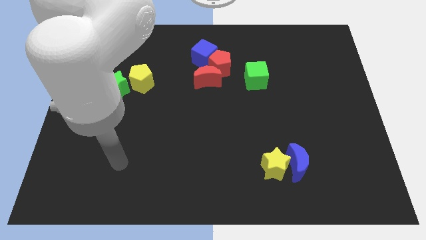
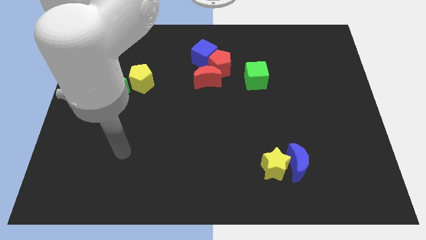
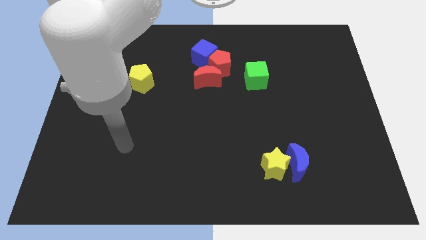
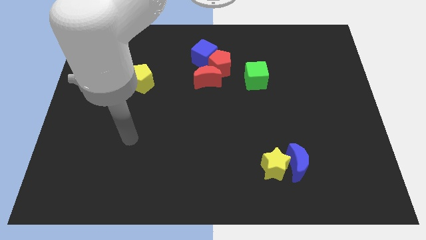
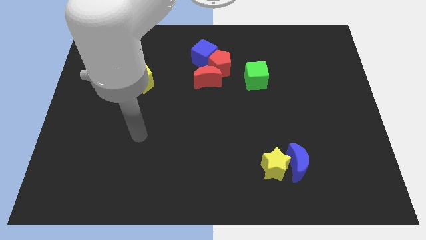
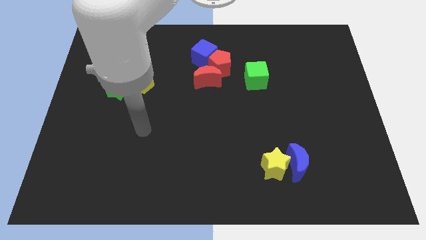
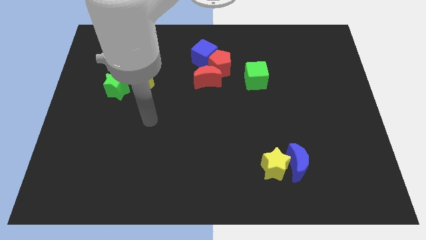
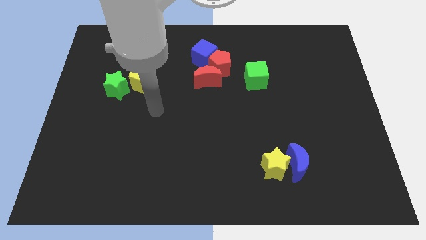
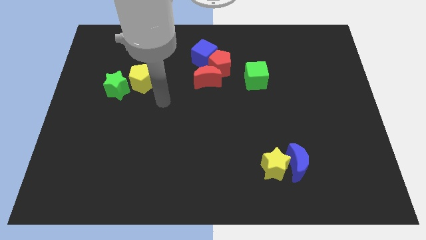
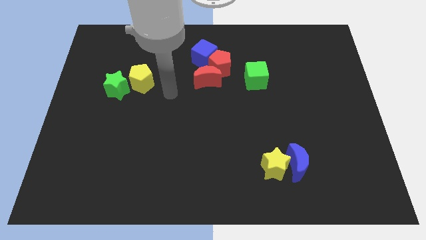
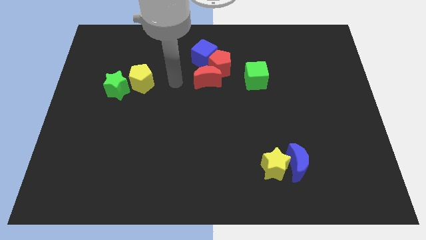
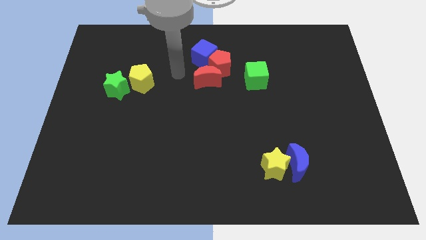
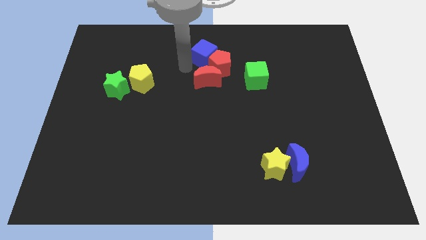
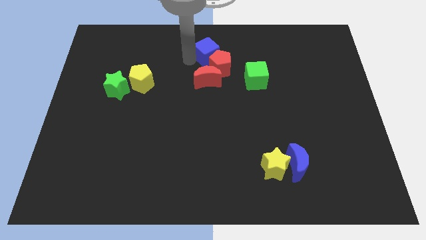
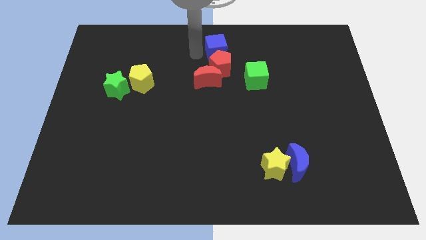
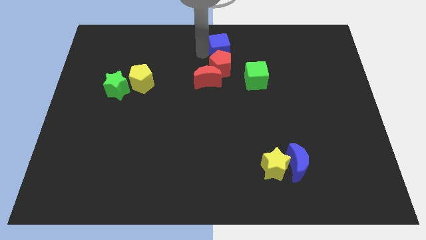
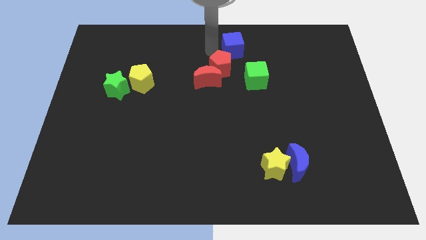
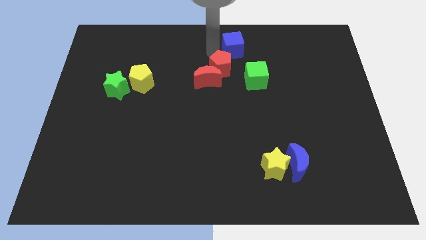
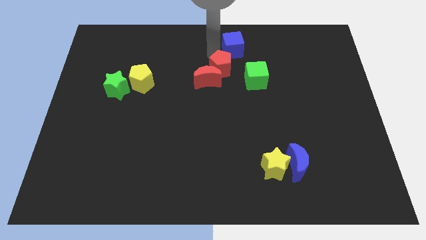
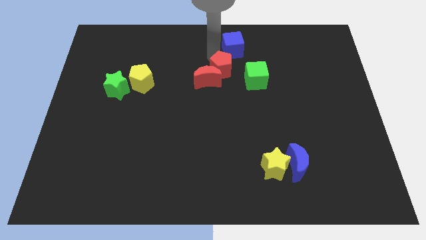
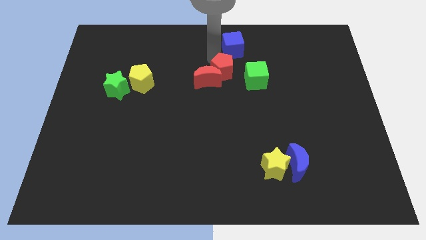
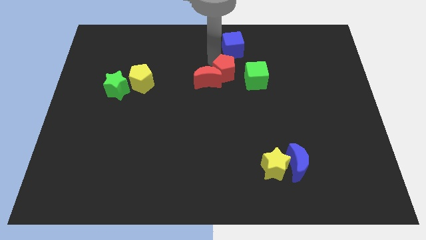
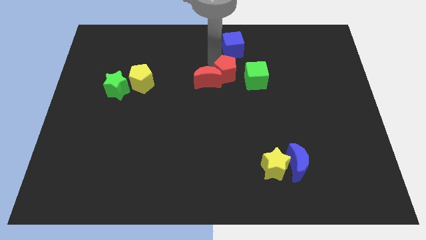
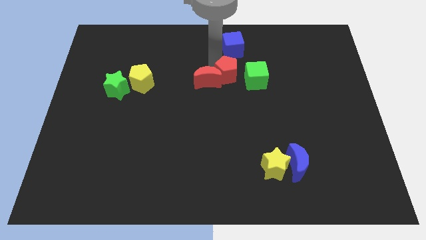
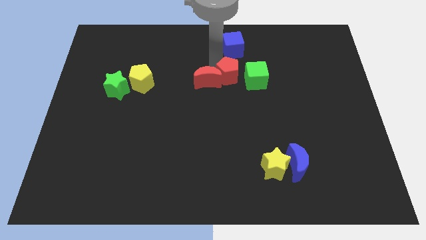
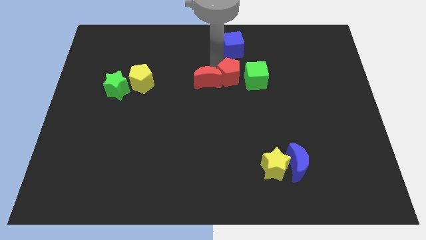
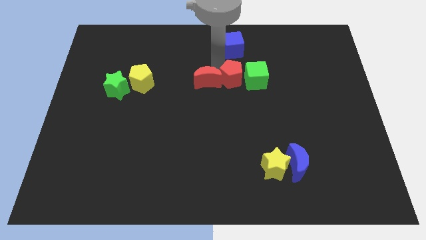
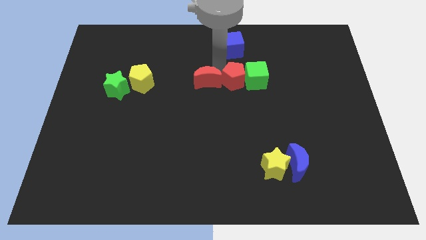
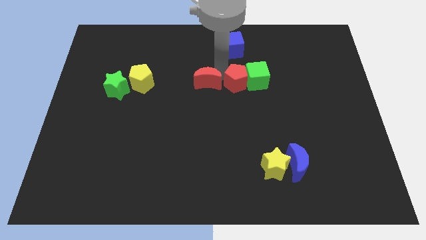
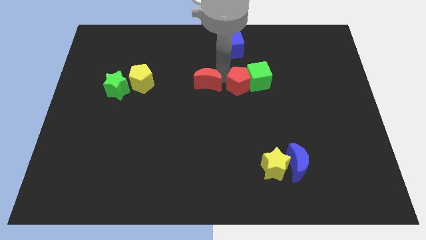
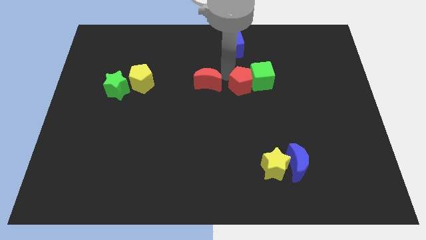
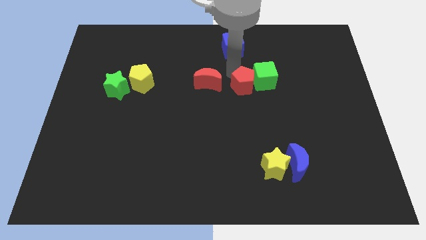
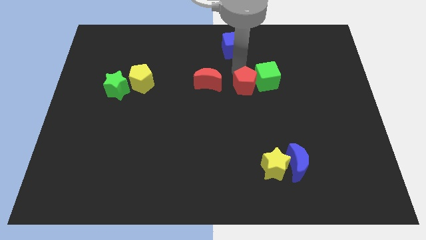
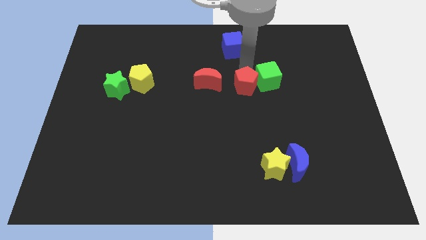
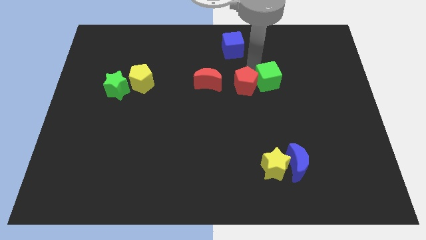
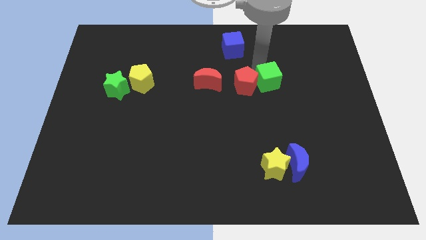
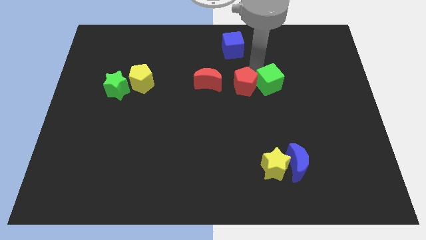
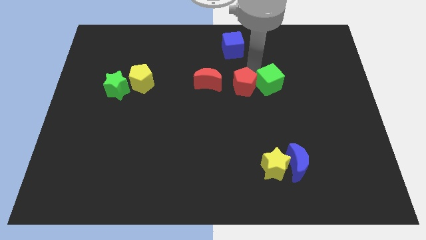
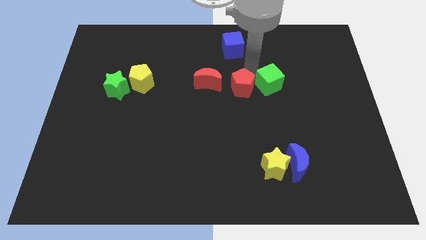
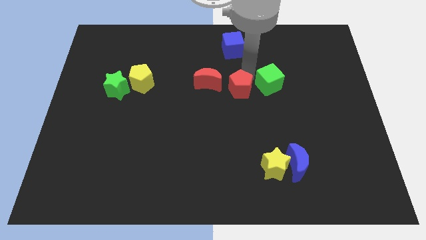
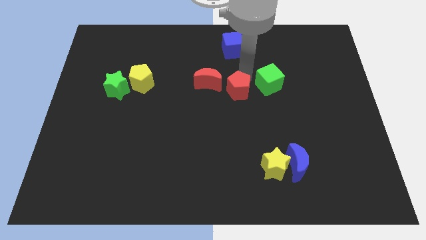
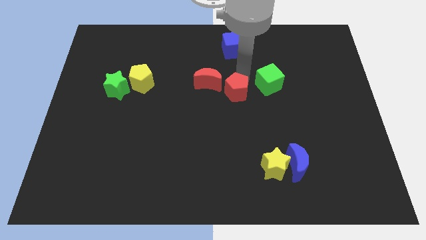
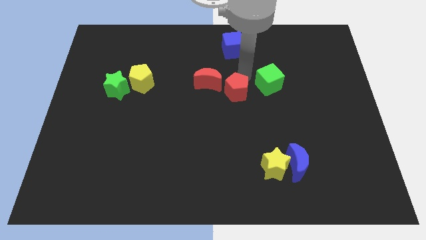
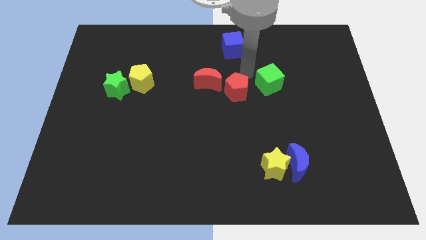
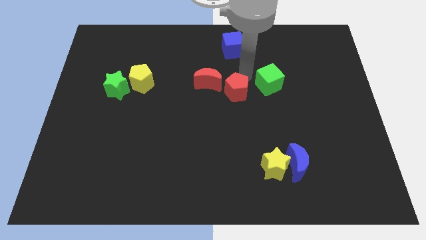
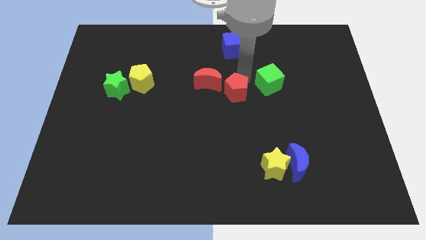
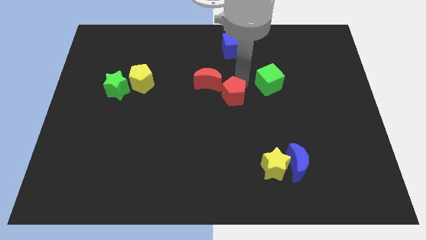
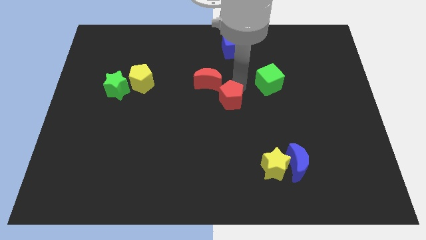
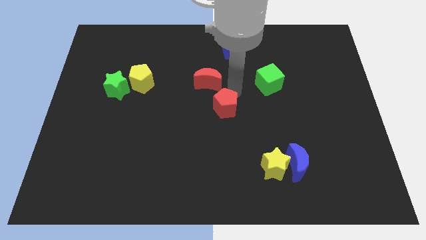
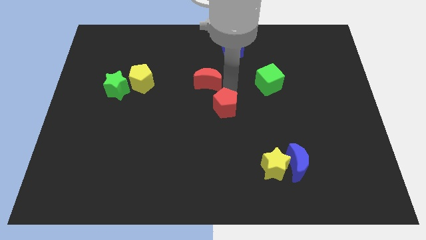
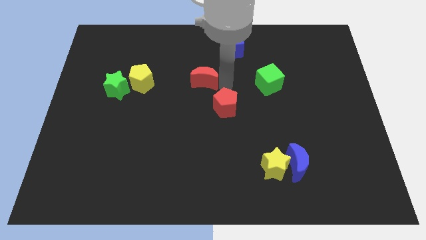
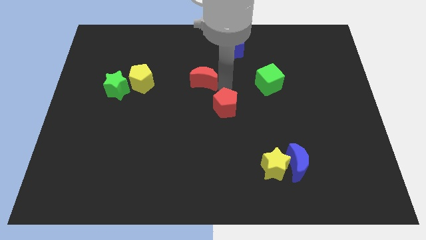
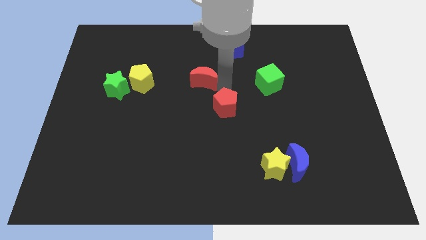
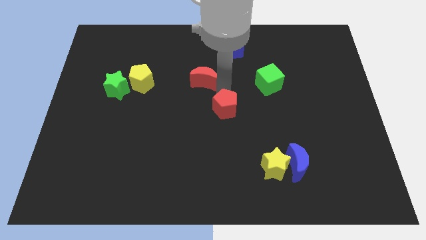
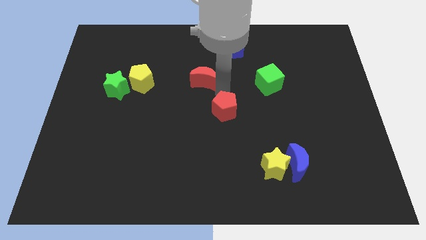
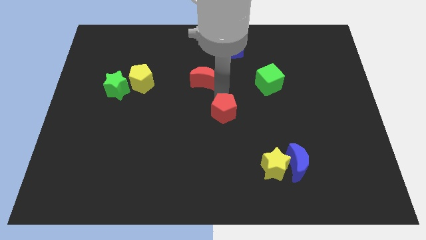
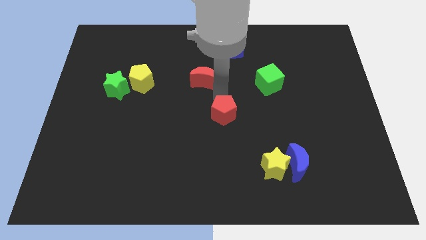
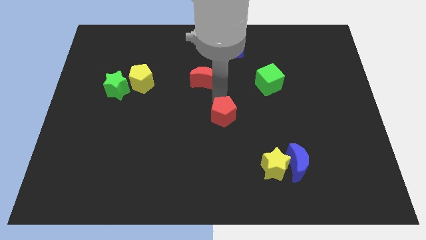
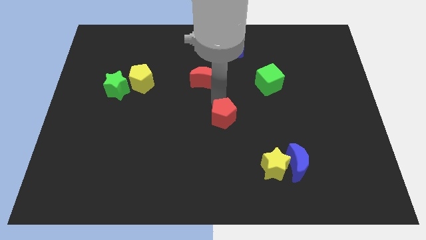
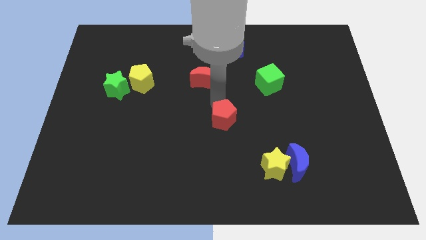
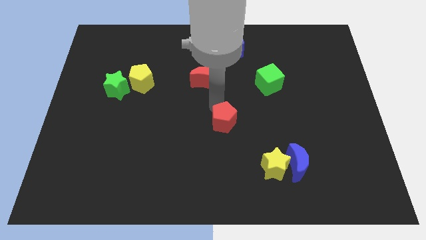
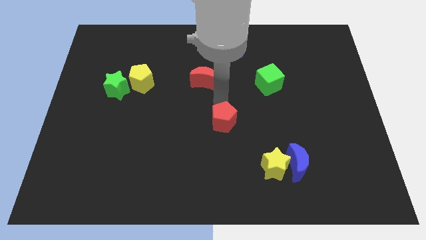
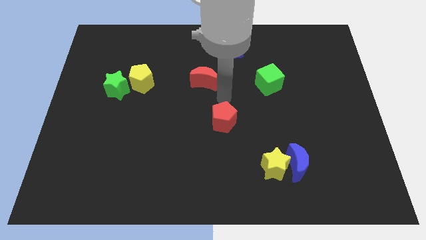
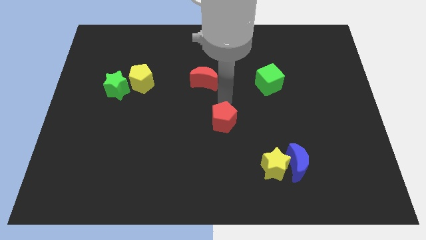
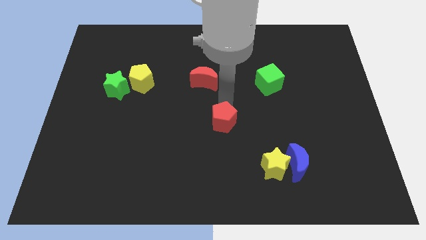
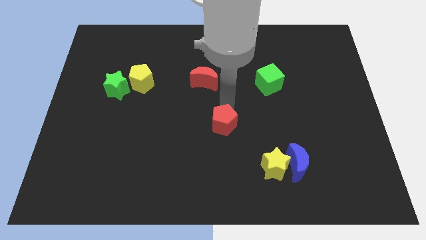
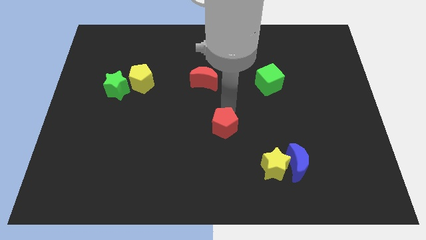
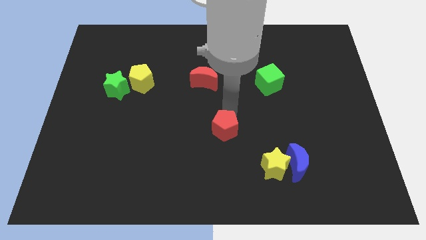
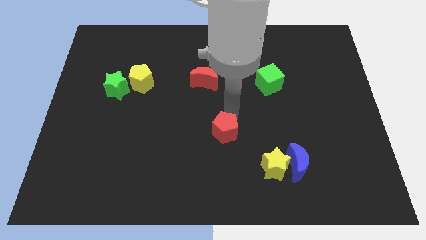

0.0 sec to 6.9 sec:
move the red pentagon downwards

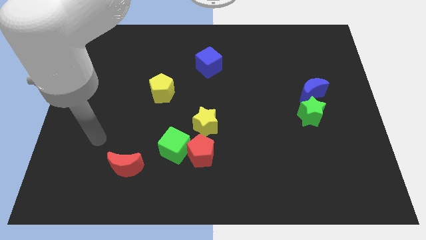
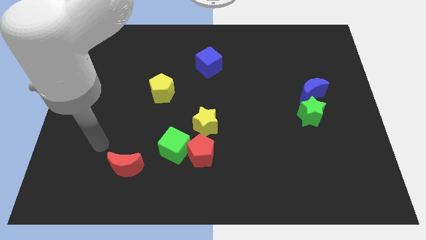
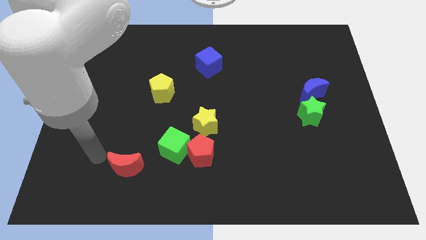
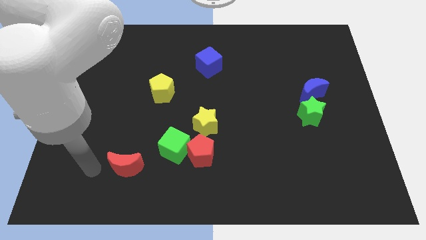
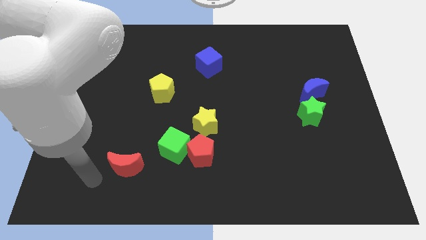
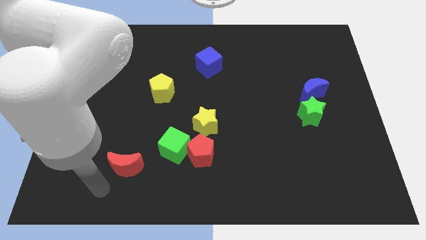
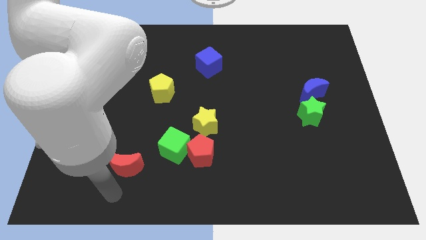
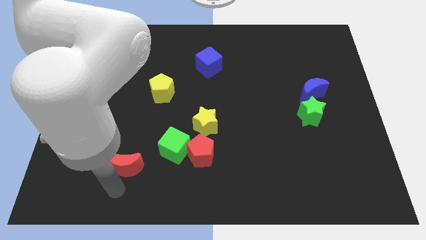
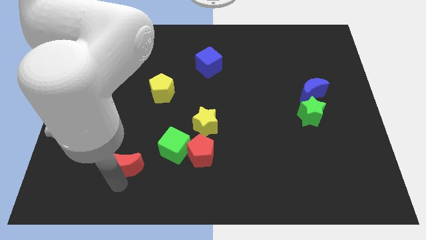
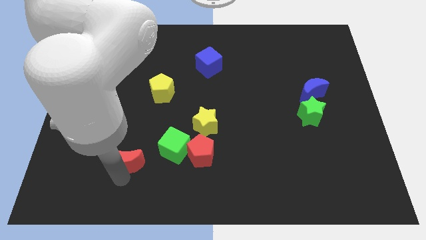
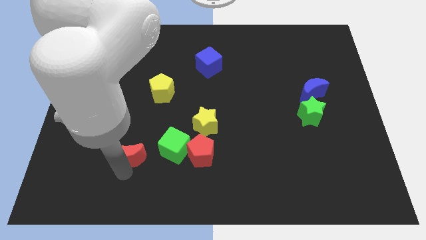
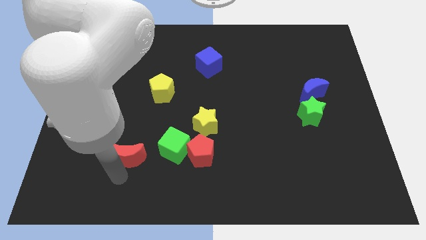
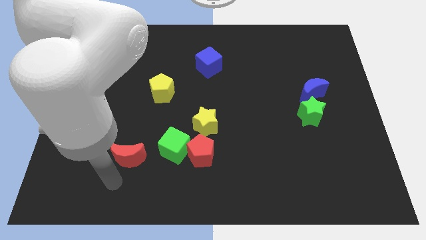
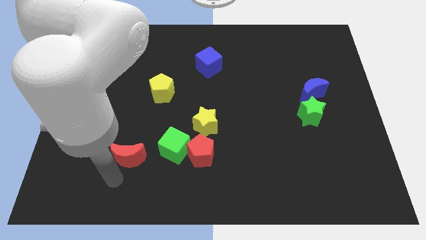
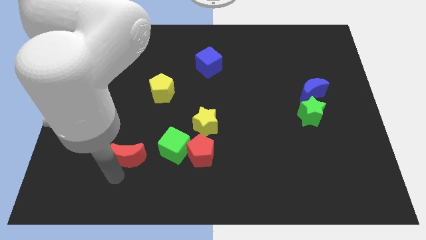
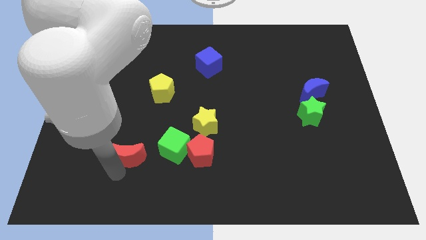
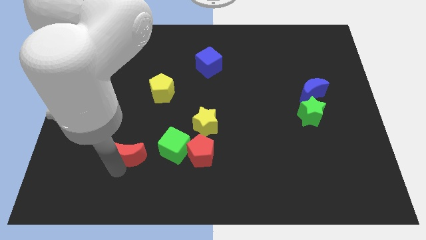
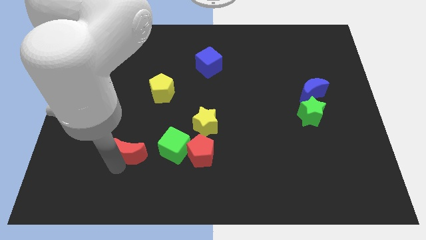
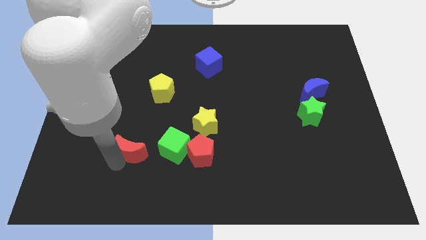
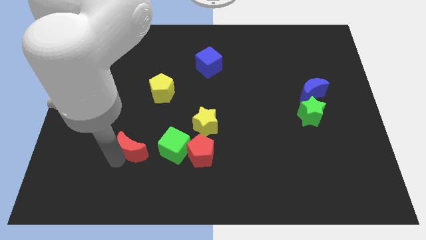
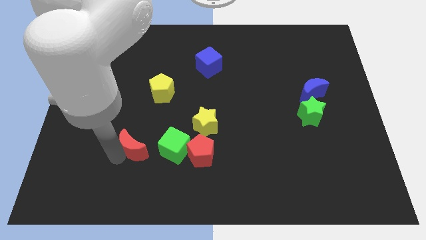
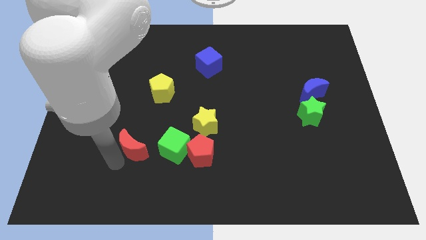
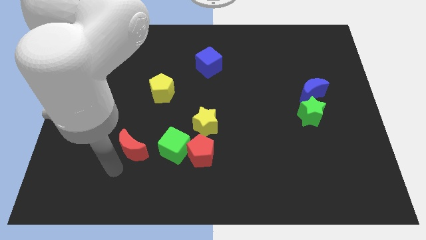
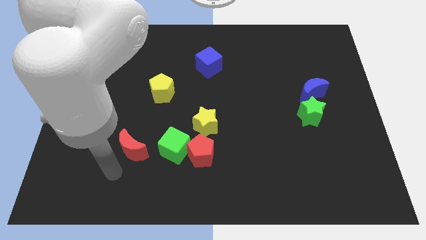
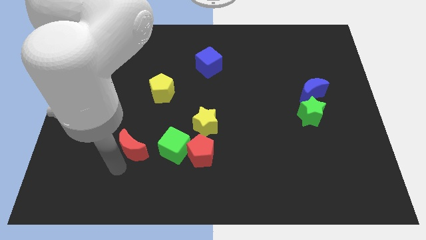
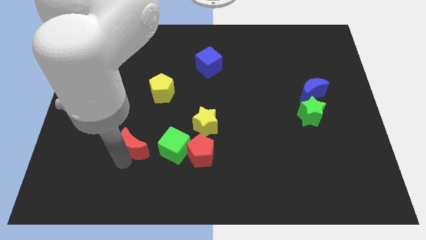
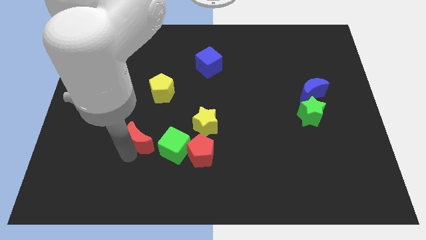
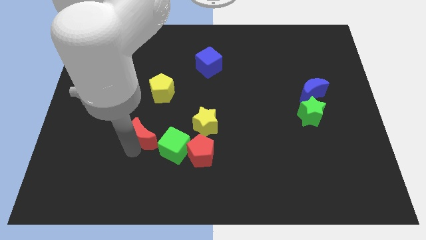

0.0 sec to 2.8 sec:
push the red moon slightly diagonally up and to the right
